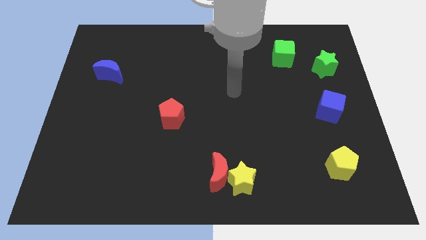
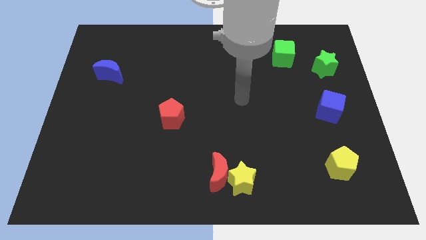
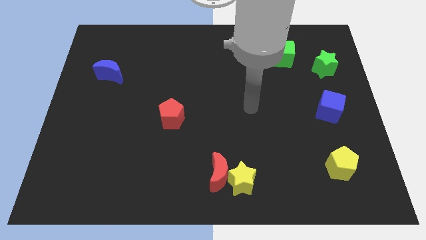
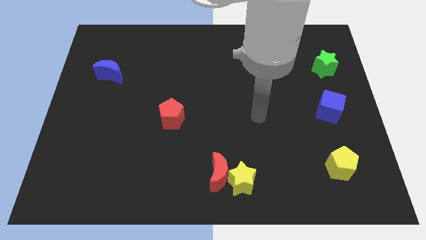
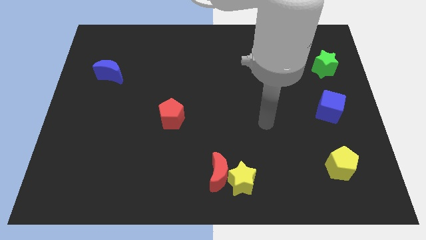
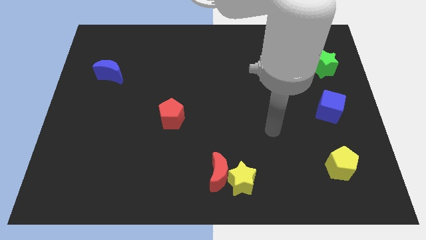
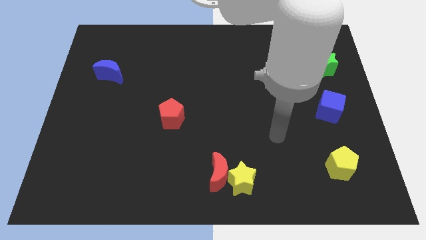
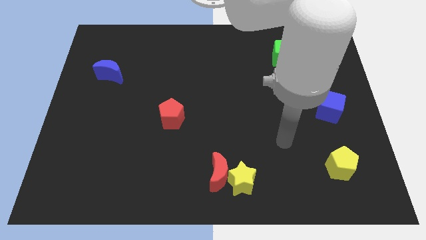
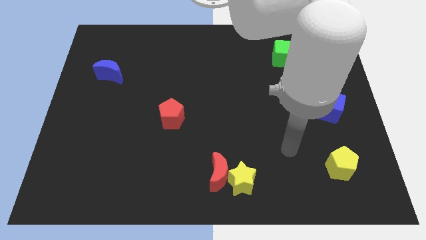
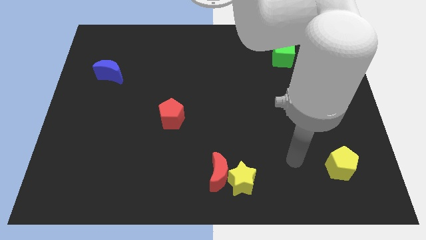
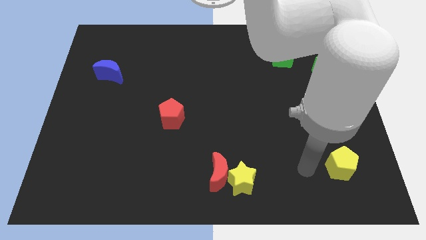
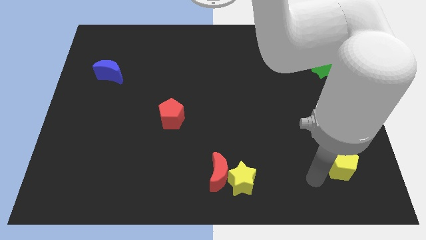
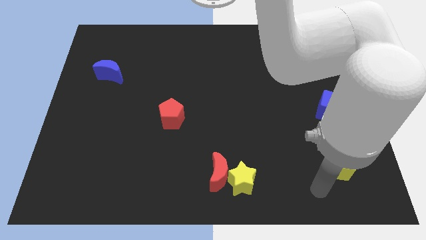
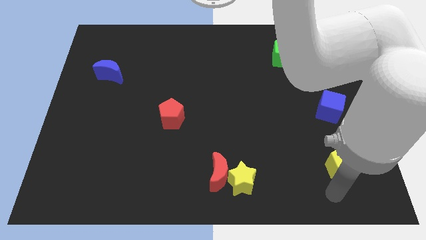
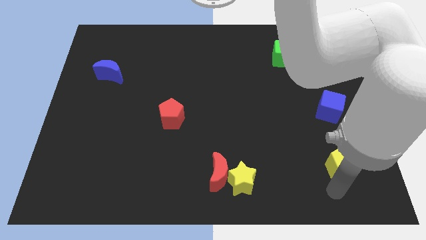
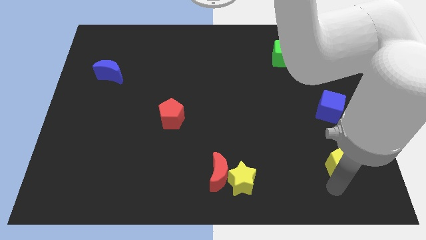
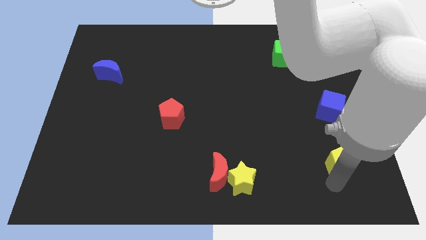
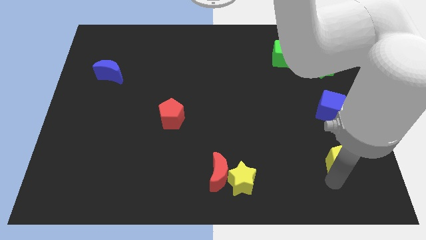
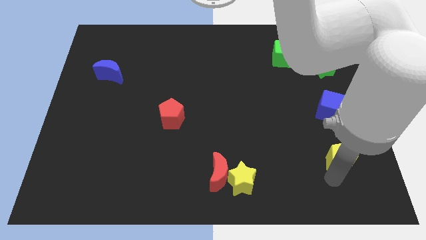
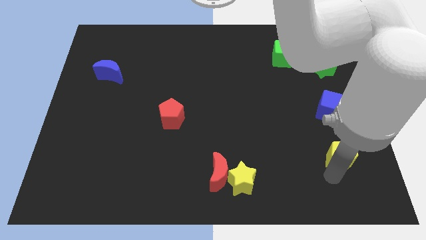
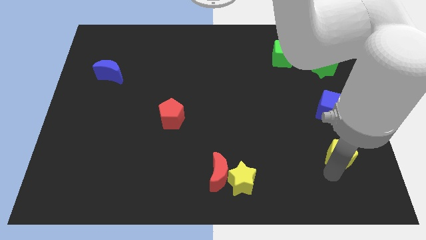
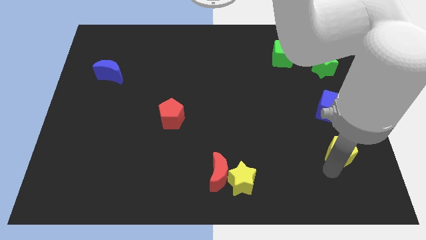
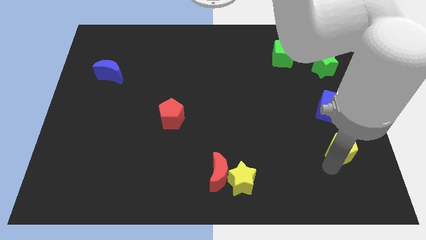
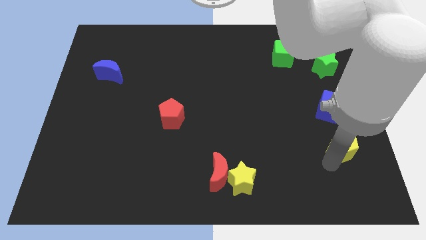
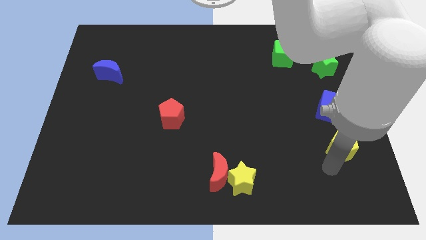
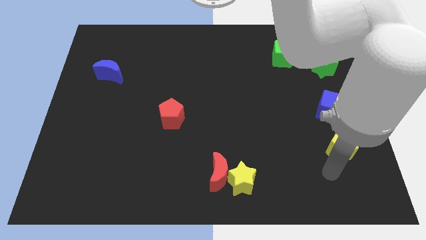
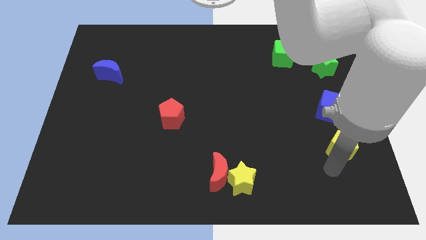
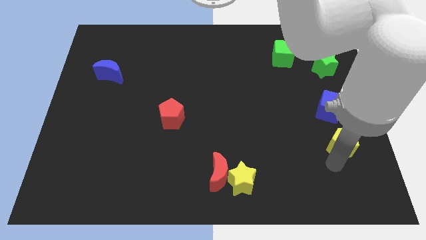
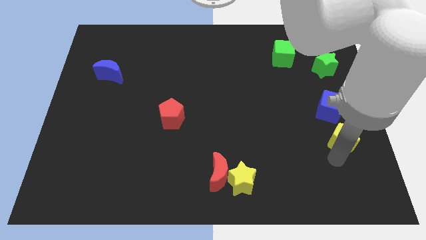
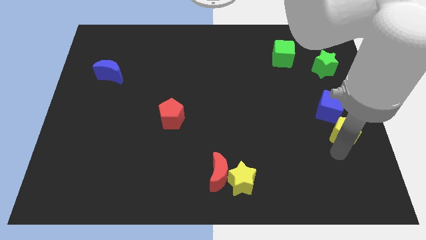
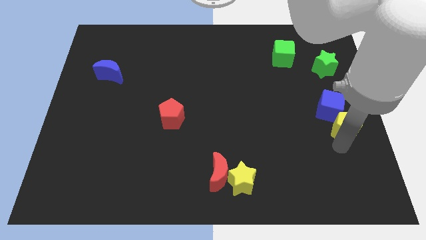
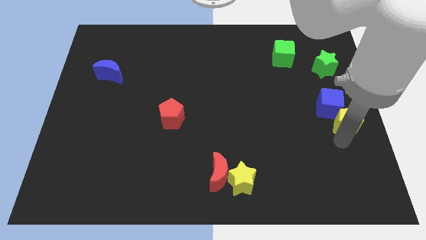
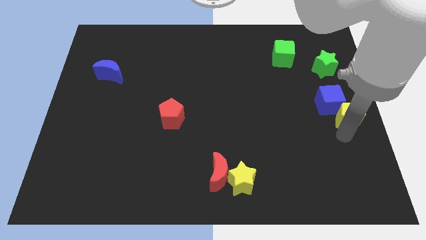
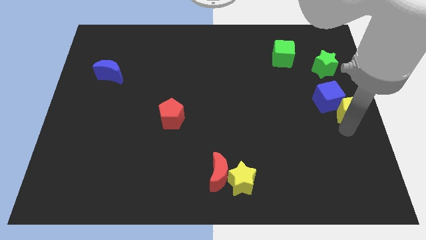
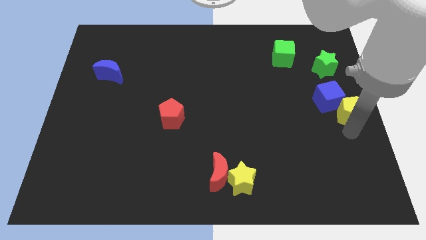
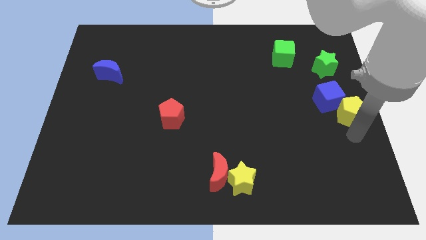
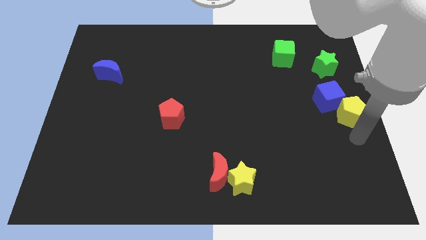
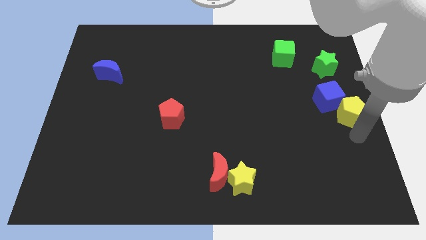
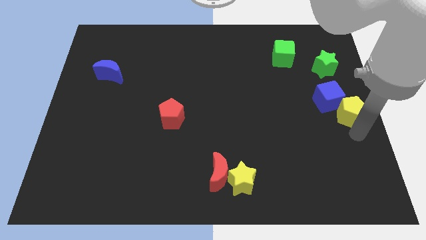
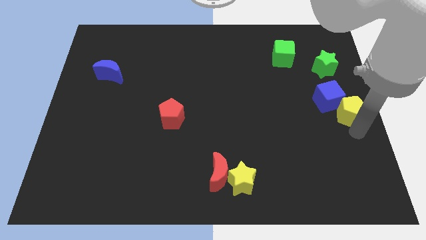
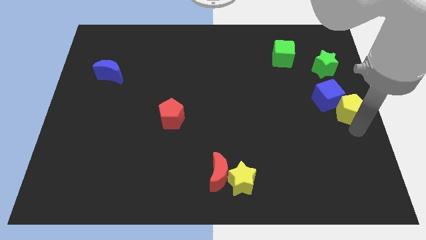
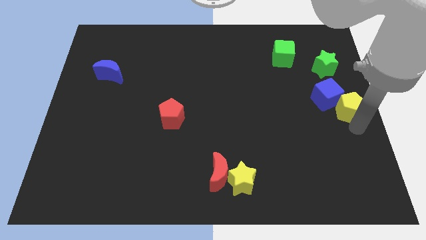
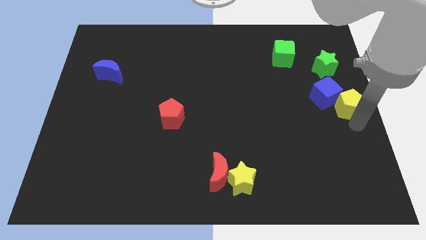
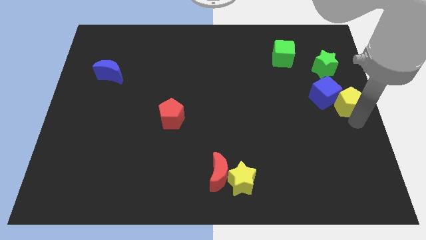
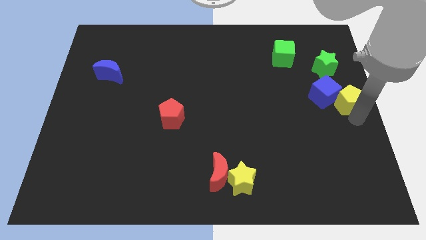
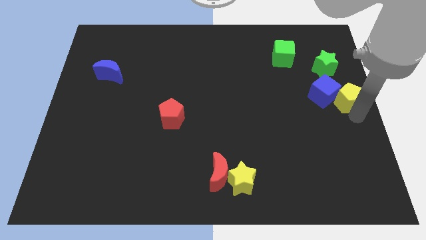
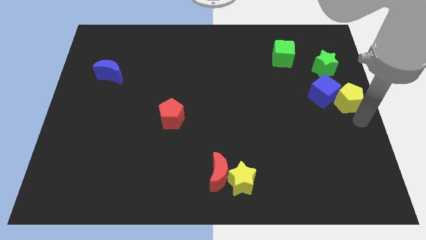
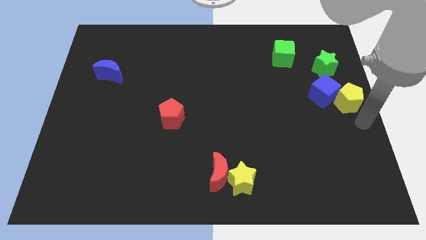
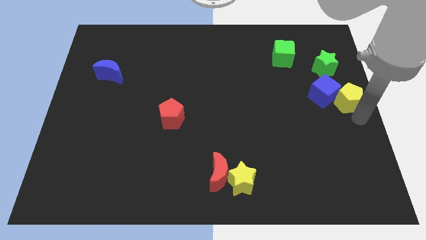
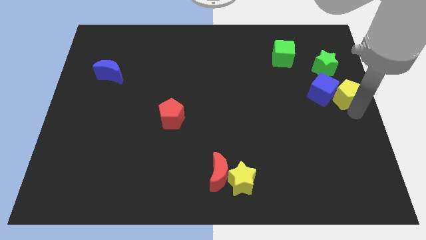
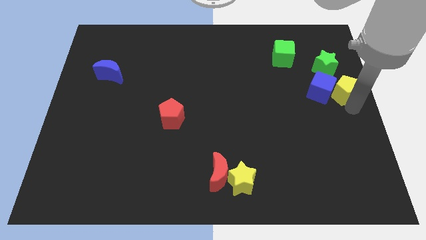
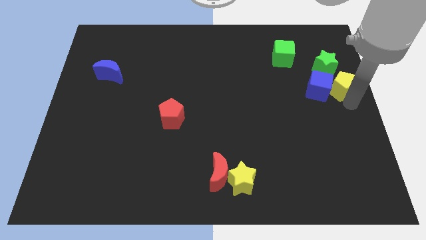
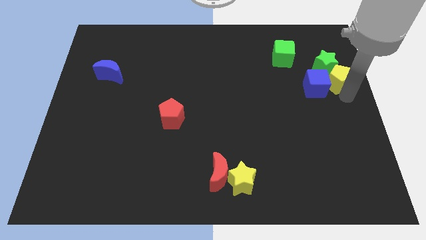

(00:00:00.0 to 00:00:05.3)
move the yellow pentagon next to the green star

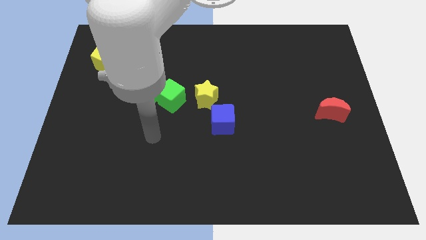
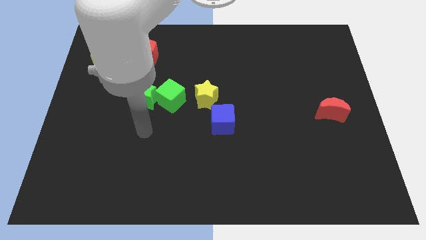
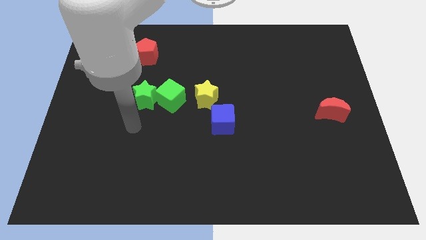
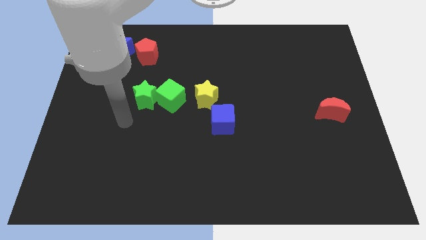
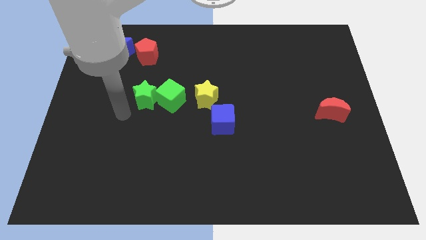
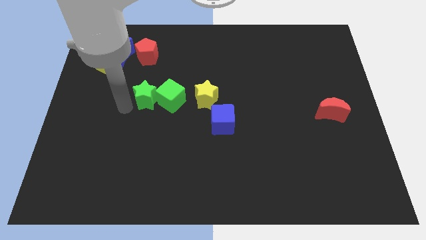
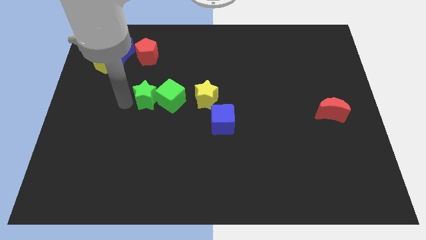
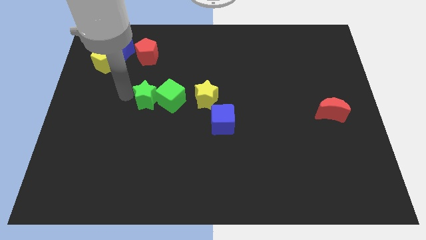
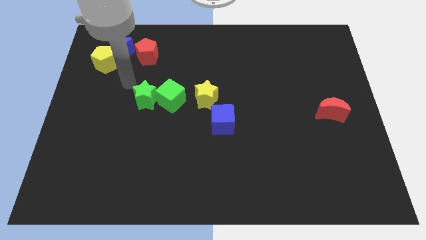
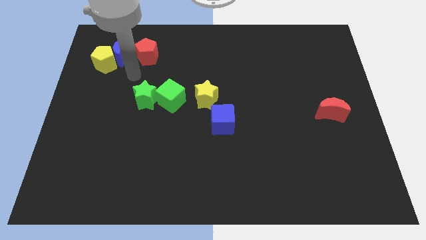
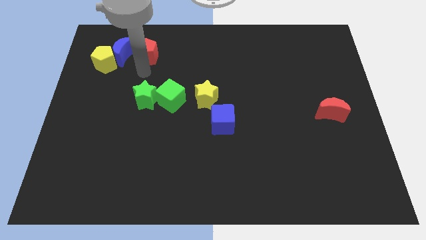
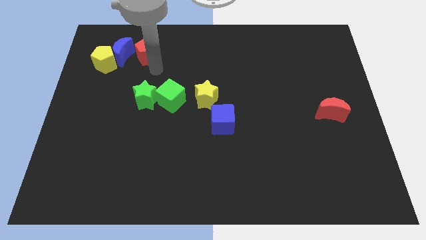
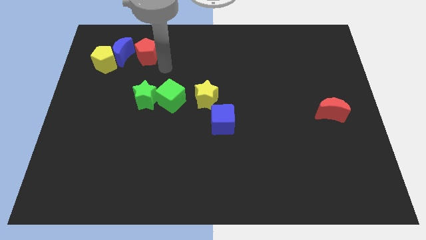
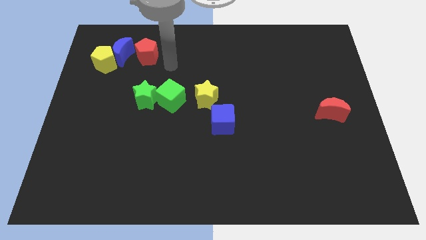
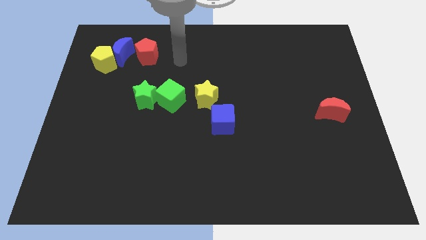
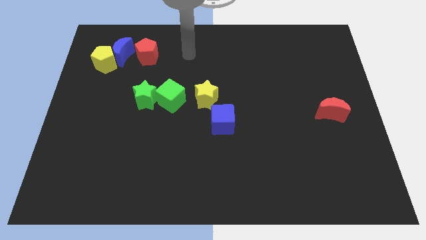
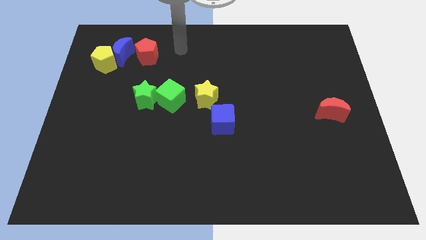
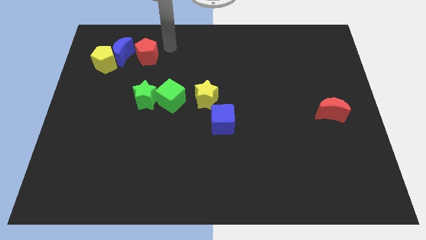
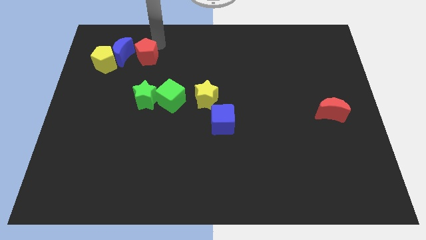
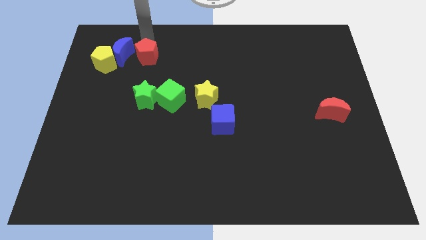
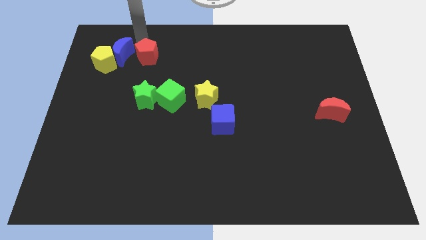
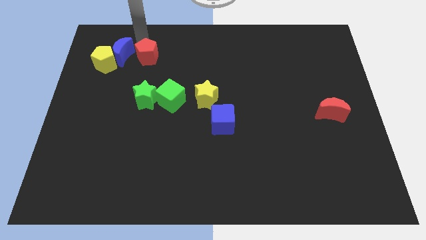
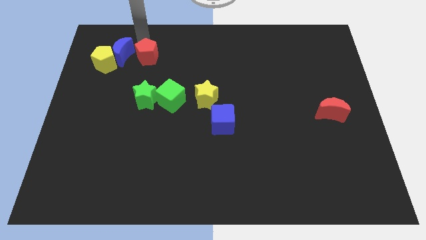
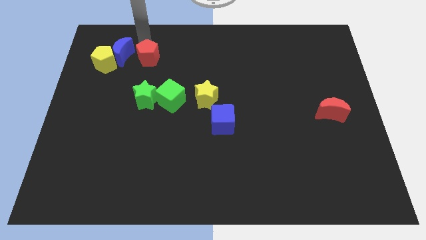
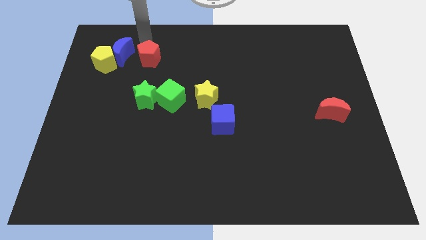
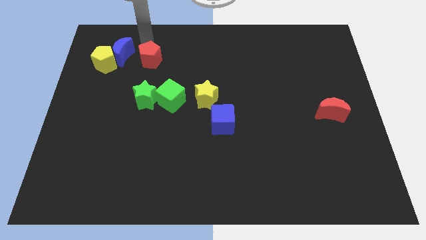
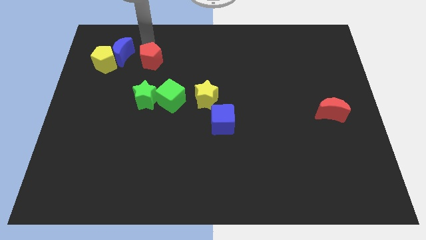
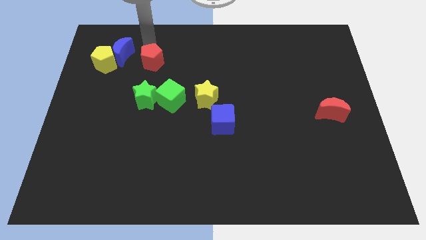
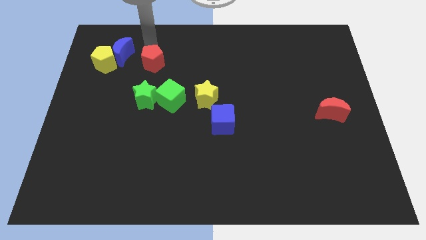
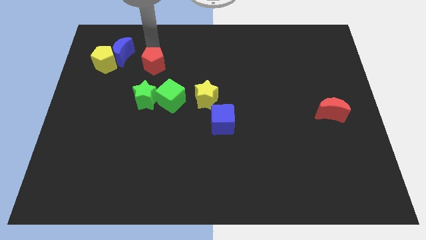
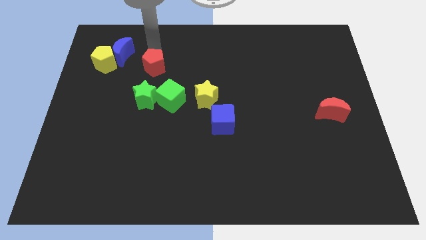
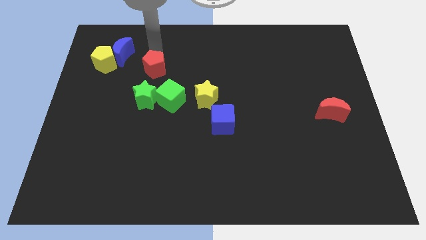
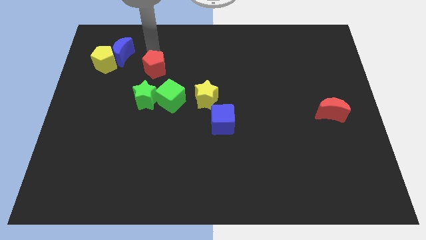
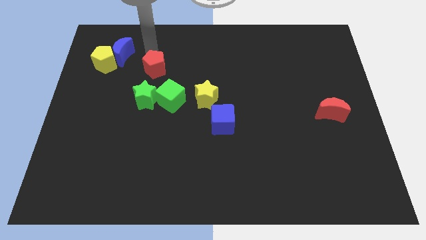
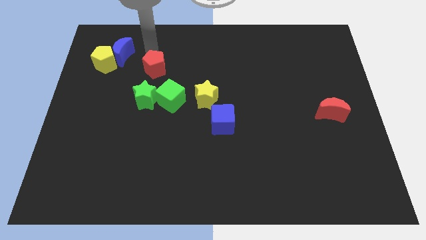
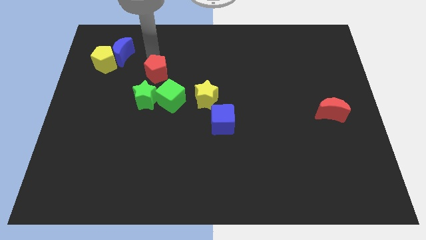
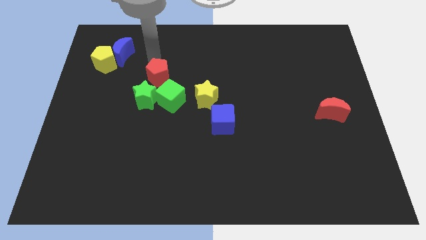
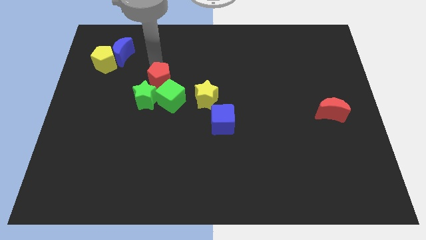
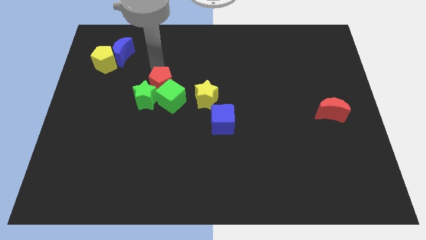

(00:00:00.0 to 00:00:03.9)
push the red pentagon close to the green cube
